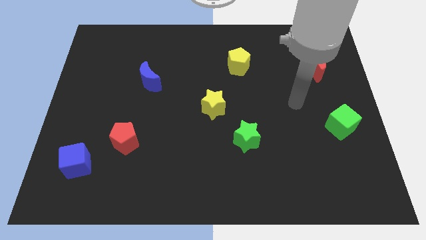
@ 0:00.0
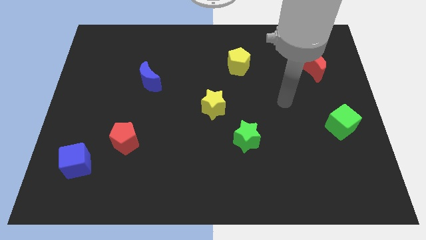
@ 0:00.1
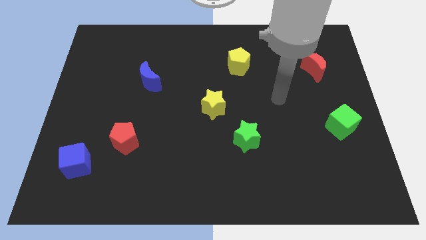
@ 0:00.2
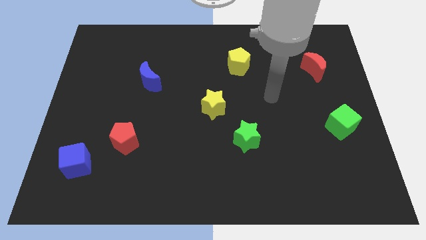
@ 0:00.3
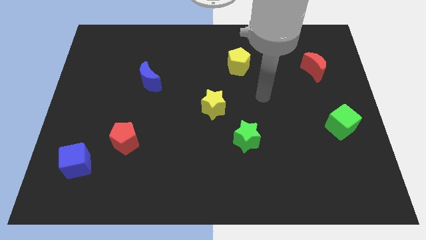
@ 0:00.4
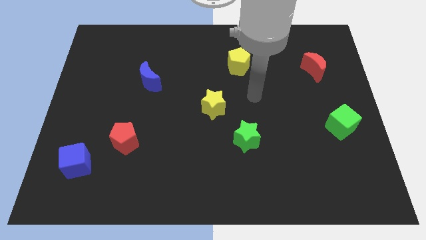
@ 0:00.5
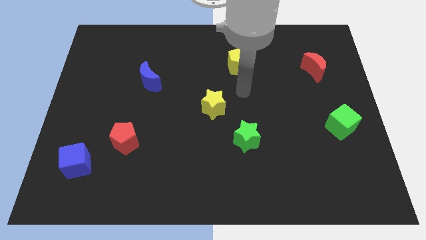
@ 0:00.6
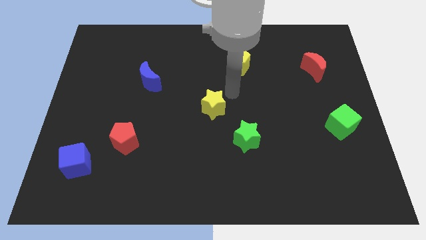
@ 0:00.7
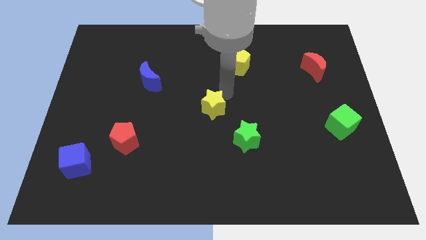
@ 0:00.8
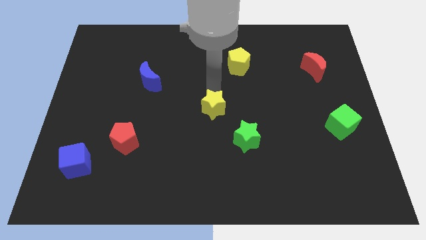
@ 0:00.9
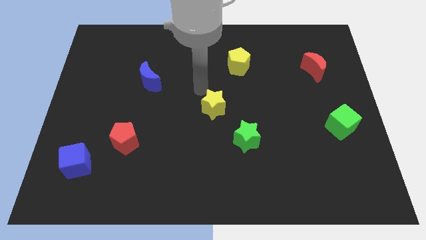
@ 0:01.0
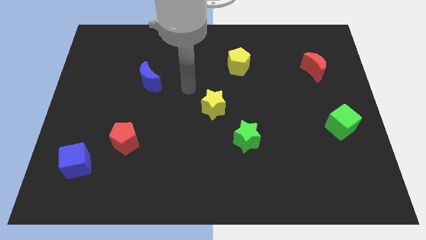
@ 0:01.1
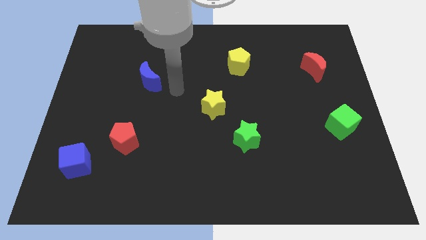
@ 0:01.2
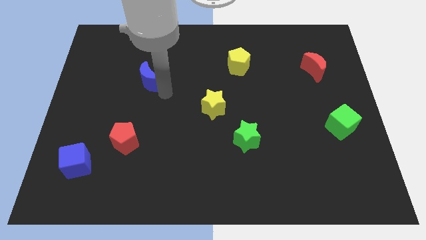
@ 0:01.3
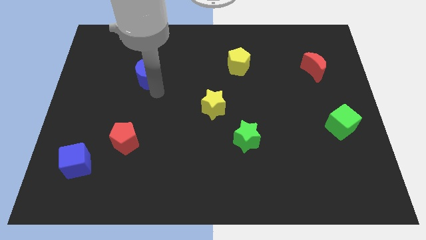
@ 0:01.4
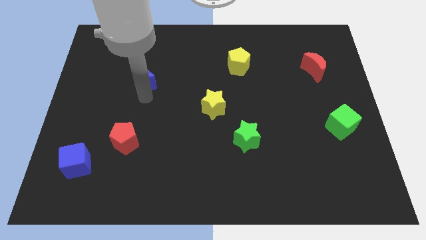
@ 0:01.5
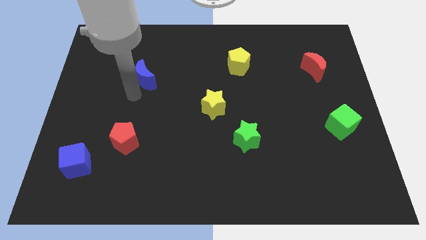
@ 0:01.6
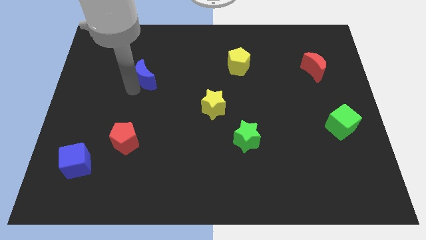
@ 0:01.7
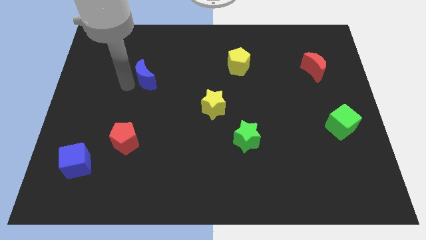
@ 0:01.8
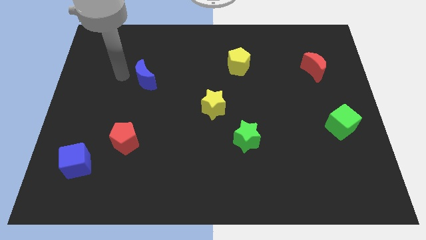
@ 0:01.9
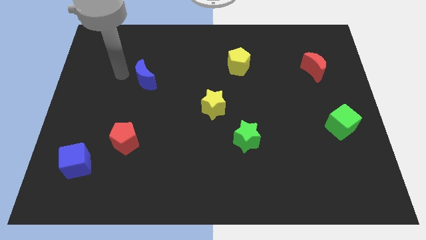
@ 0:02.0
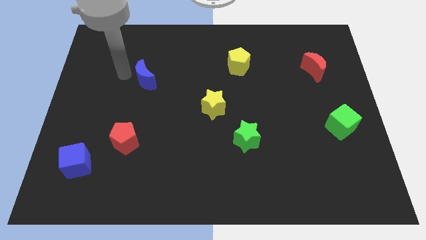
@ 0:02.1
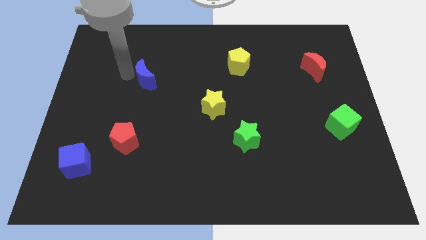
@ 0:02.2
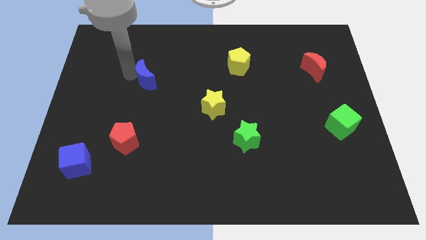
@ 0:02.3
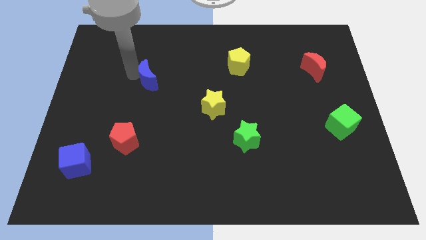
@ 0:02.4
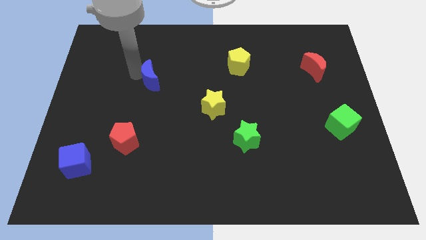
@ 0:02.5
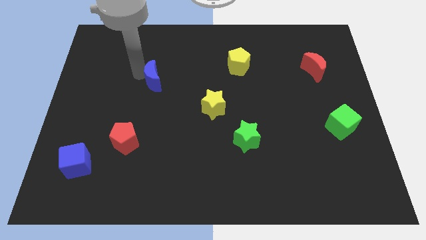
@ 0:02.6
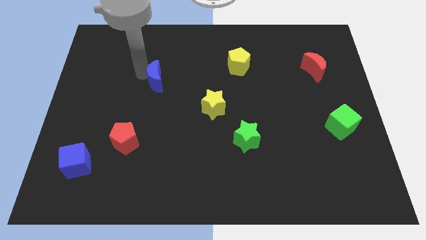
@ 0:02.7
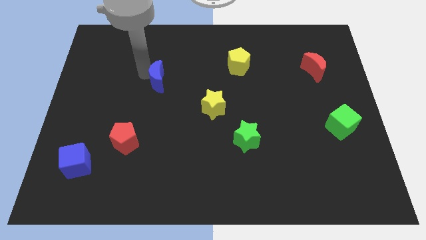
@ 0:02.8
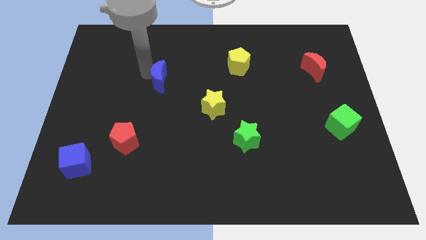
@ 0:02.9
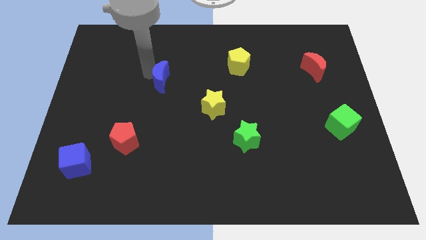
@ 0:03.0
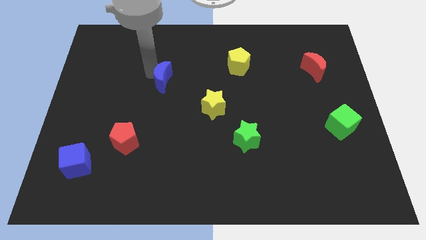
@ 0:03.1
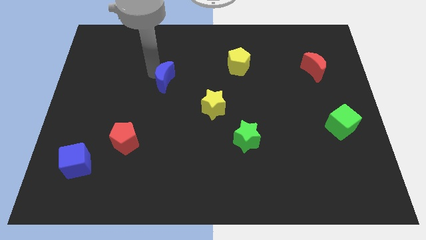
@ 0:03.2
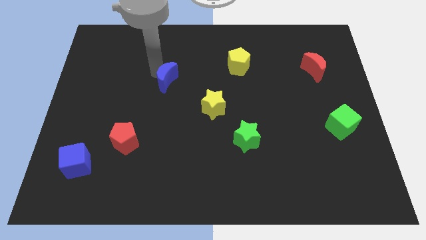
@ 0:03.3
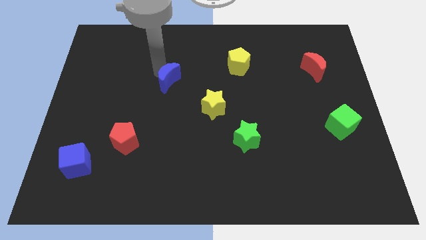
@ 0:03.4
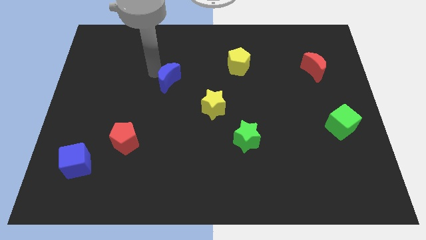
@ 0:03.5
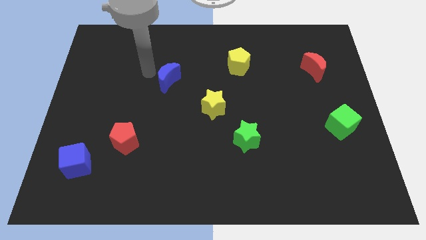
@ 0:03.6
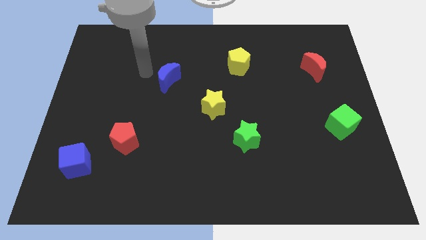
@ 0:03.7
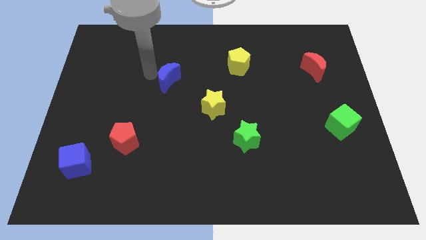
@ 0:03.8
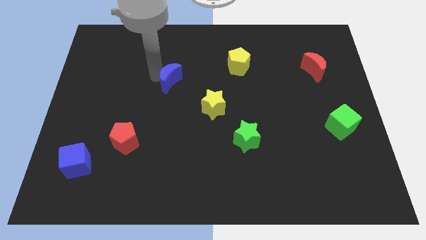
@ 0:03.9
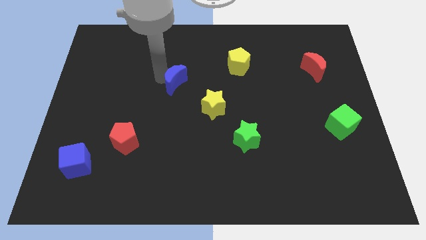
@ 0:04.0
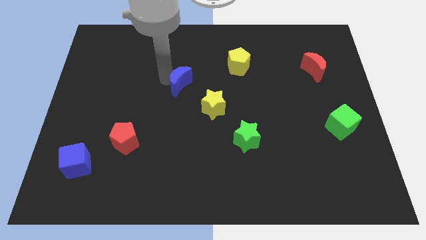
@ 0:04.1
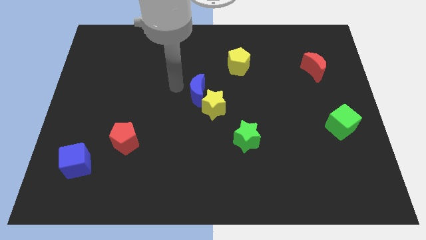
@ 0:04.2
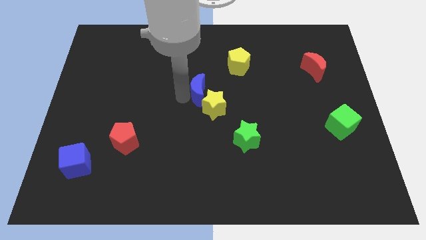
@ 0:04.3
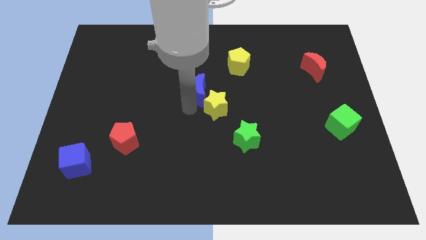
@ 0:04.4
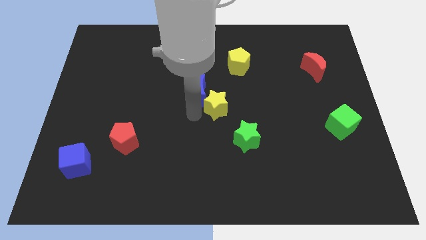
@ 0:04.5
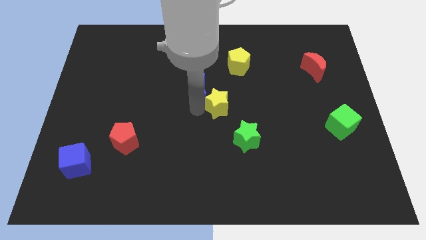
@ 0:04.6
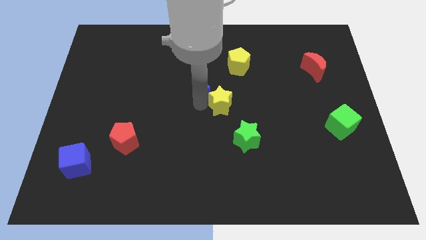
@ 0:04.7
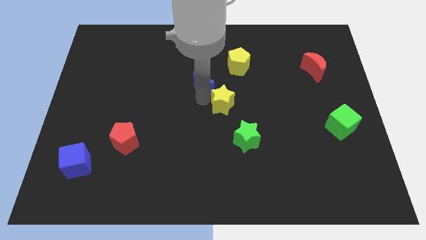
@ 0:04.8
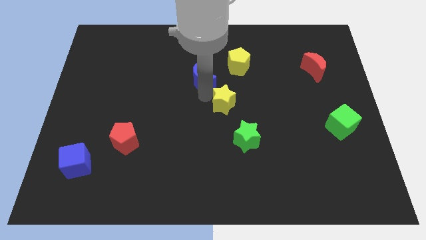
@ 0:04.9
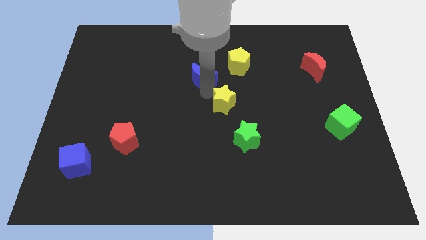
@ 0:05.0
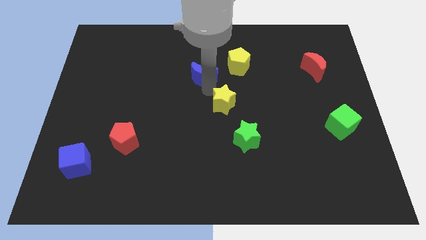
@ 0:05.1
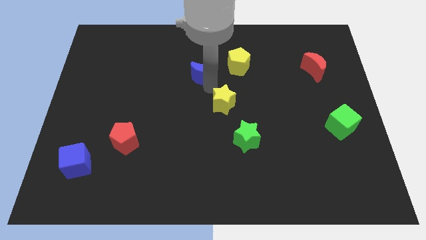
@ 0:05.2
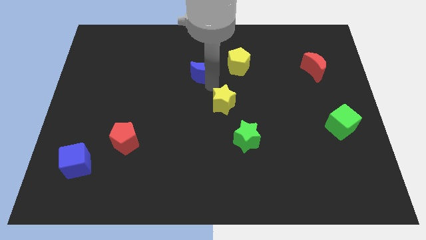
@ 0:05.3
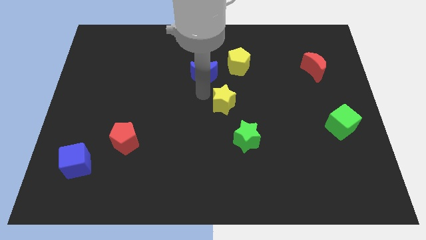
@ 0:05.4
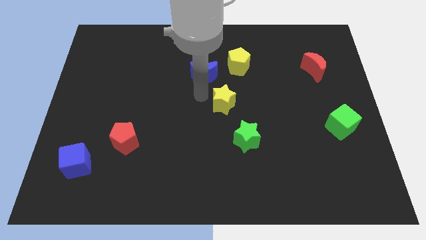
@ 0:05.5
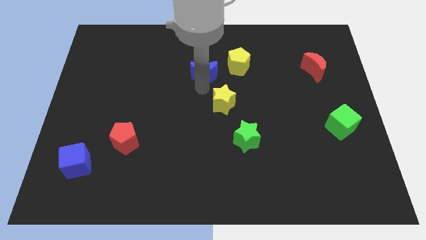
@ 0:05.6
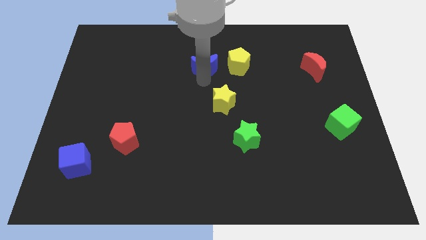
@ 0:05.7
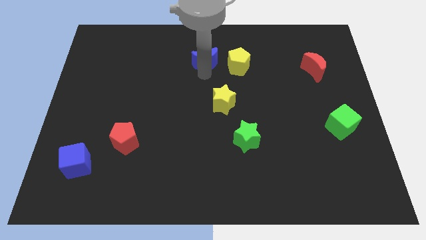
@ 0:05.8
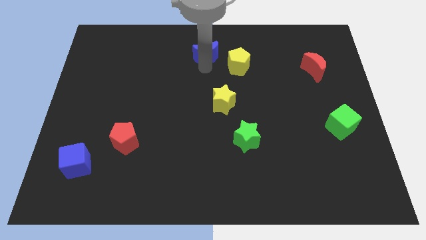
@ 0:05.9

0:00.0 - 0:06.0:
slide the blue moon to the top side

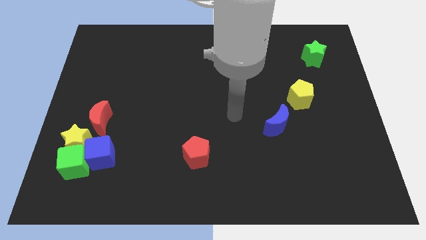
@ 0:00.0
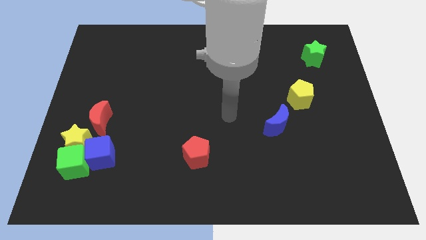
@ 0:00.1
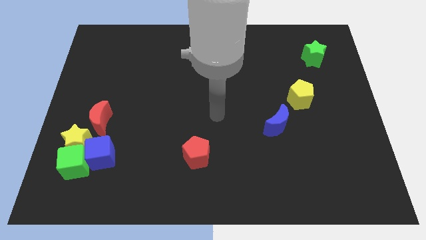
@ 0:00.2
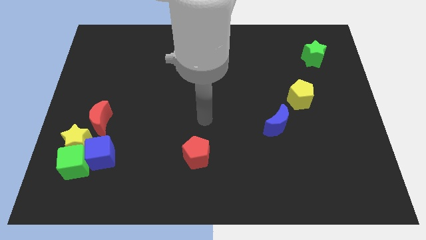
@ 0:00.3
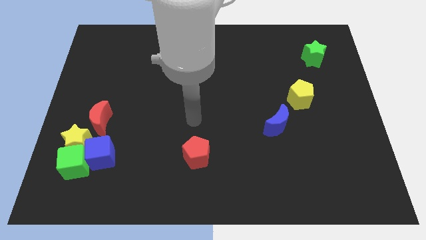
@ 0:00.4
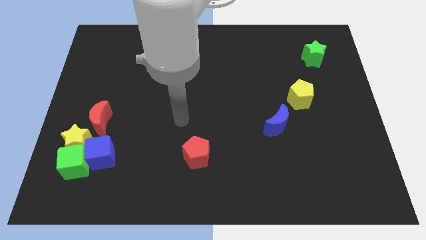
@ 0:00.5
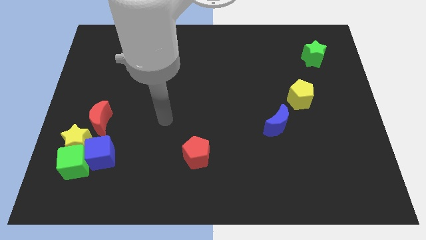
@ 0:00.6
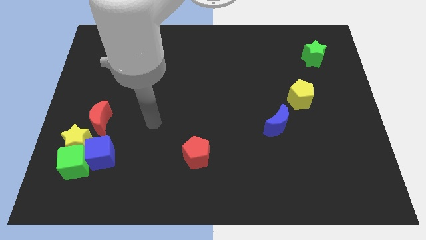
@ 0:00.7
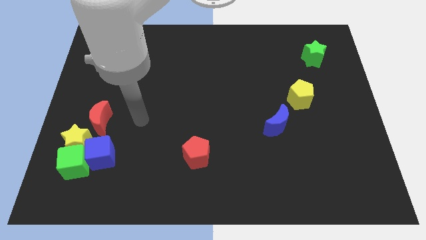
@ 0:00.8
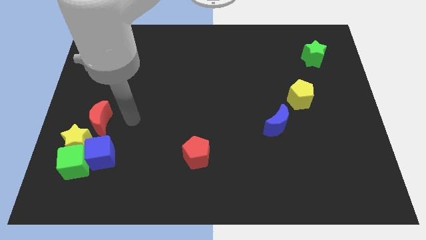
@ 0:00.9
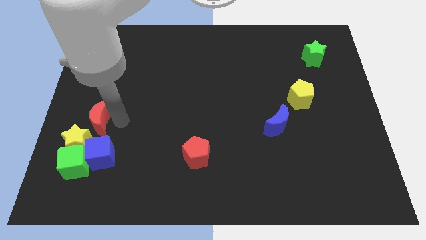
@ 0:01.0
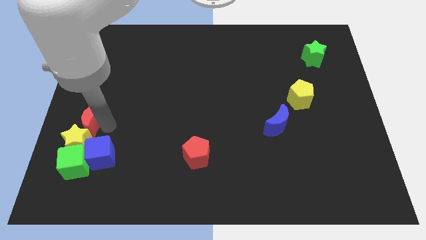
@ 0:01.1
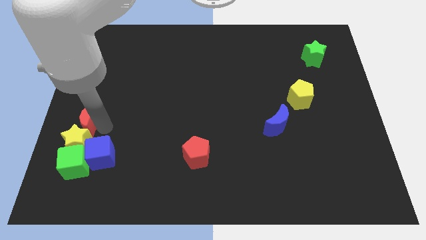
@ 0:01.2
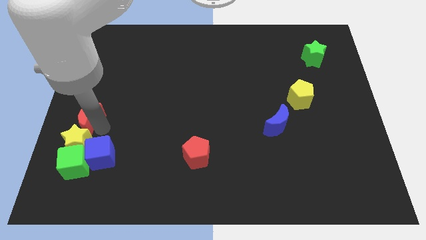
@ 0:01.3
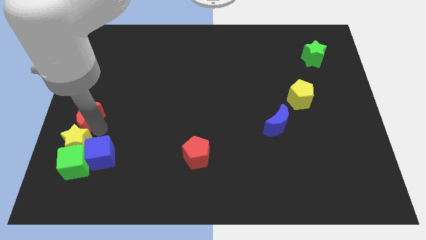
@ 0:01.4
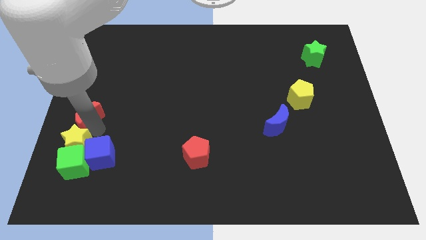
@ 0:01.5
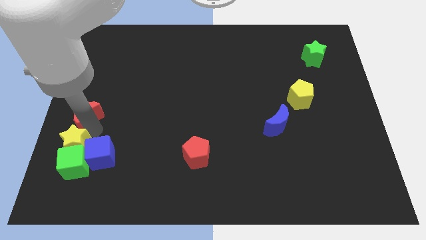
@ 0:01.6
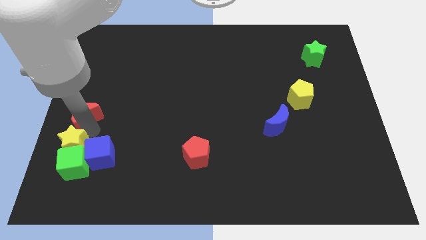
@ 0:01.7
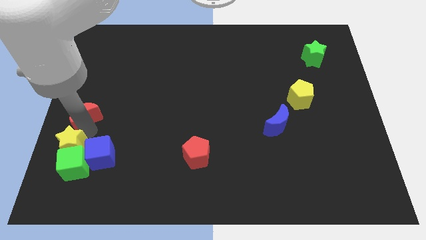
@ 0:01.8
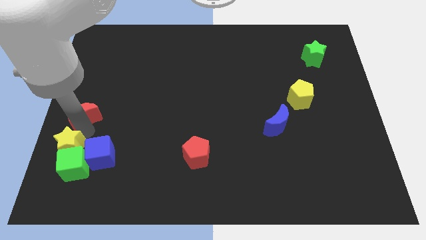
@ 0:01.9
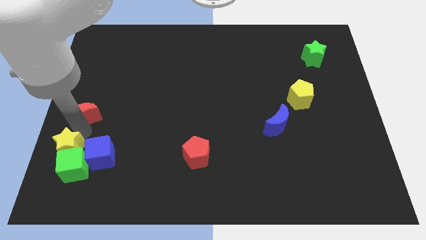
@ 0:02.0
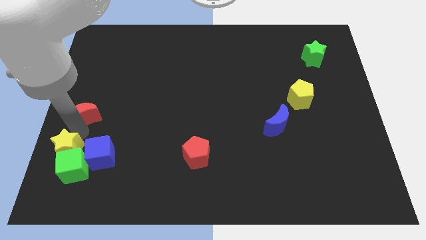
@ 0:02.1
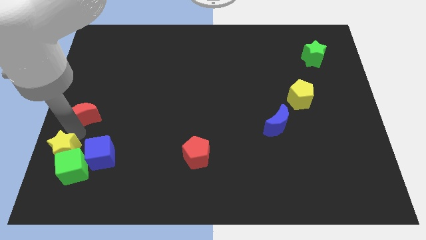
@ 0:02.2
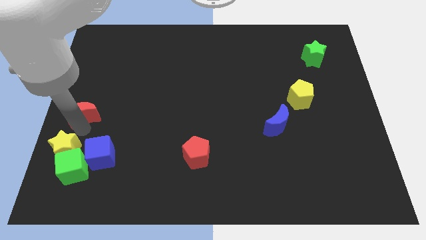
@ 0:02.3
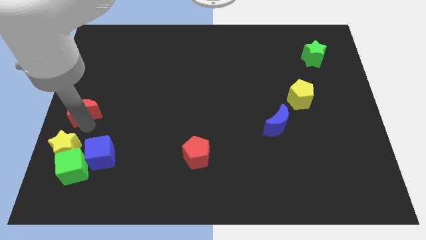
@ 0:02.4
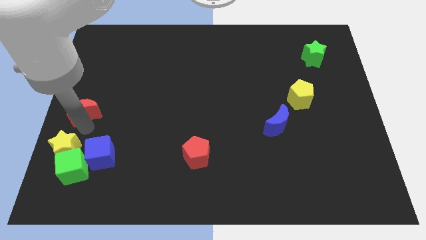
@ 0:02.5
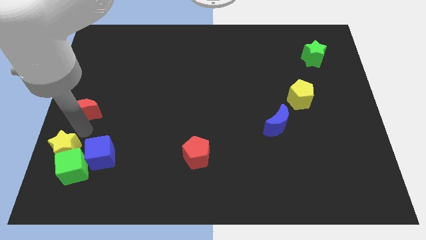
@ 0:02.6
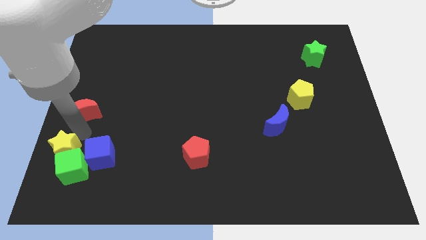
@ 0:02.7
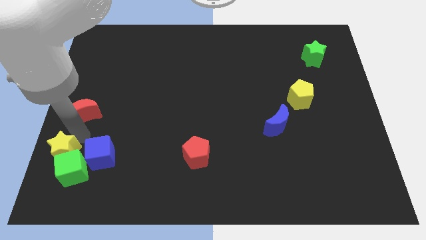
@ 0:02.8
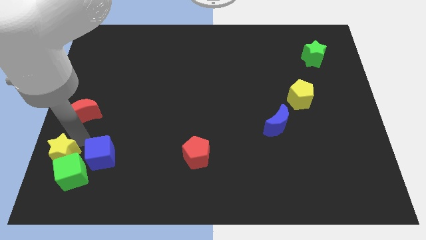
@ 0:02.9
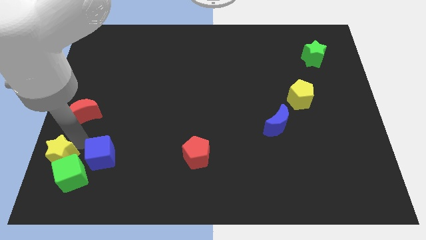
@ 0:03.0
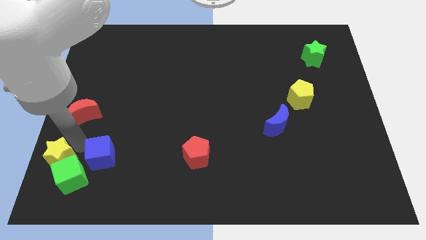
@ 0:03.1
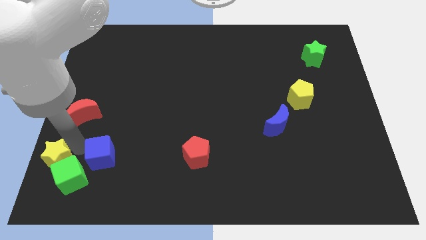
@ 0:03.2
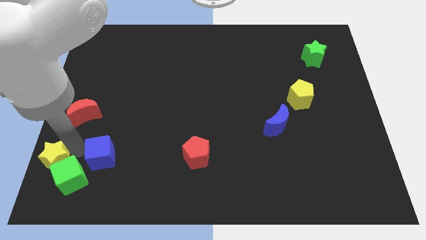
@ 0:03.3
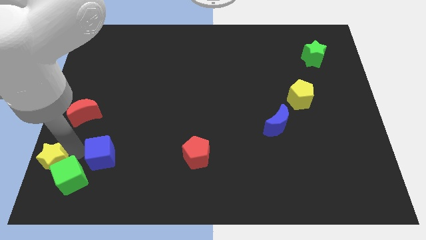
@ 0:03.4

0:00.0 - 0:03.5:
slide the yellow star to the bottom left corner
